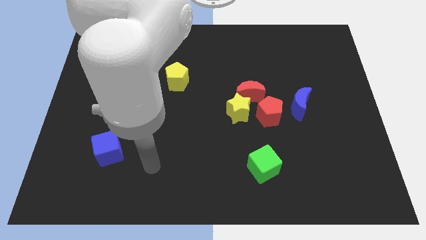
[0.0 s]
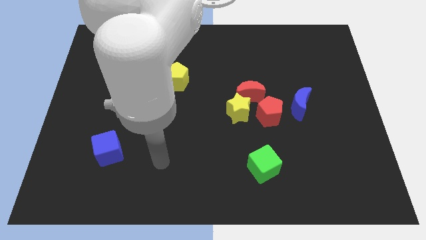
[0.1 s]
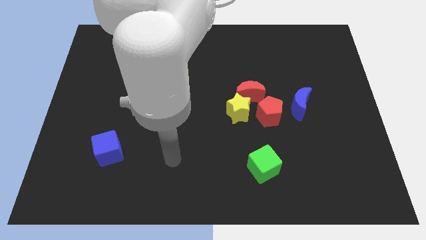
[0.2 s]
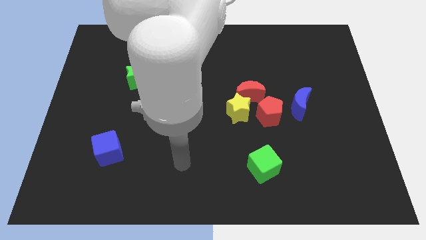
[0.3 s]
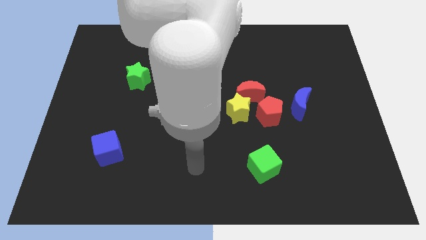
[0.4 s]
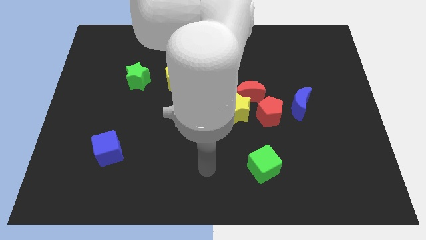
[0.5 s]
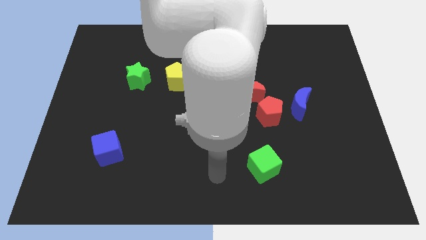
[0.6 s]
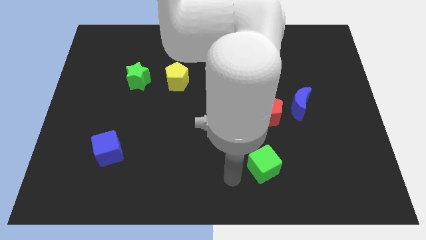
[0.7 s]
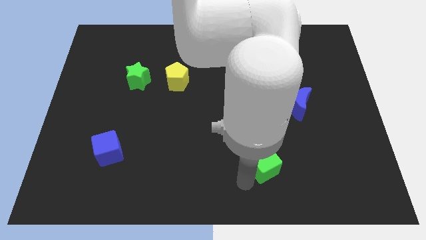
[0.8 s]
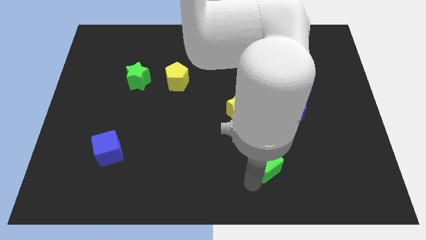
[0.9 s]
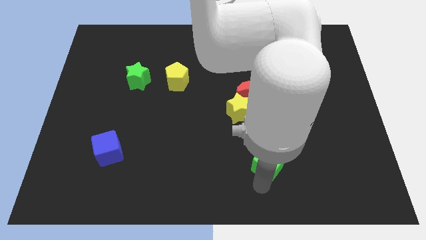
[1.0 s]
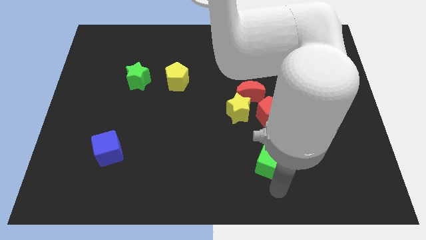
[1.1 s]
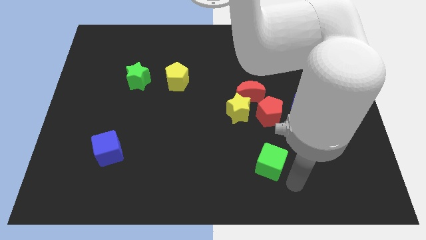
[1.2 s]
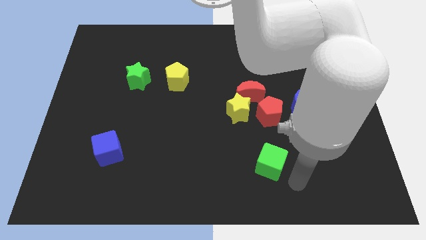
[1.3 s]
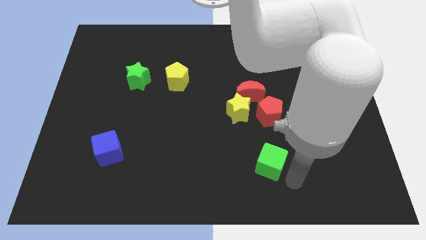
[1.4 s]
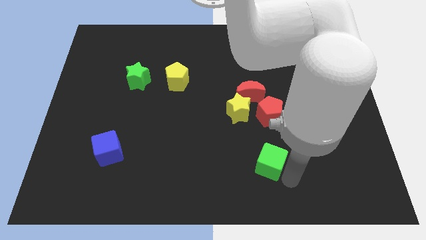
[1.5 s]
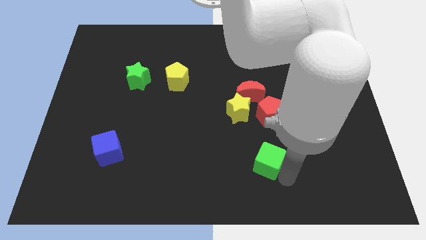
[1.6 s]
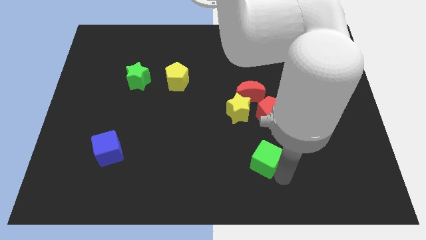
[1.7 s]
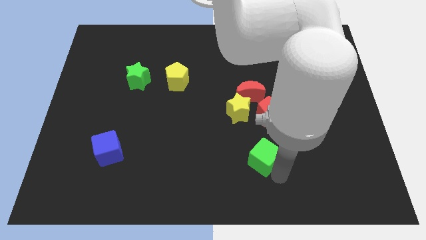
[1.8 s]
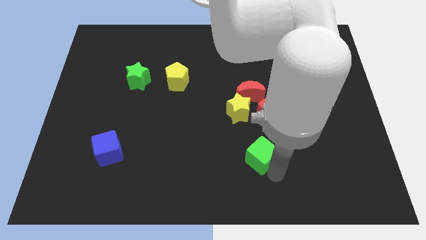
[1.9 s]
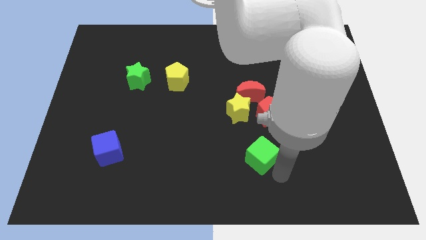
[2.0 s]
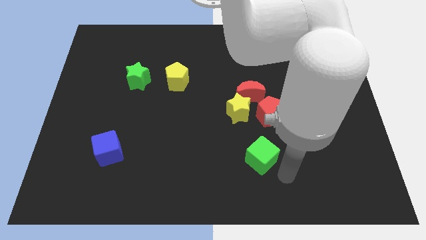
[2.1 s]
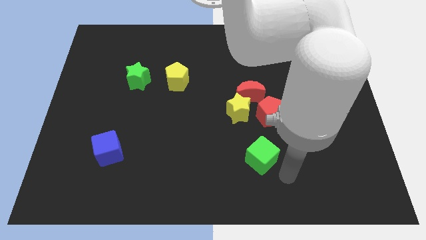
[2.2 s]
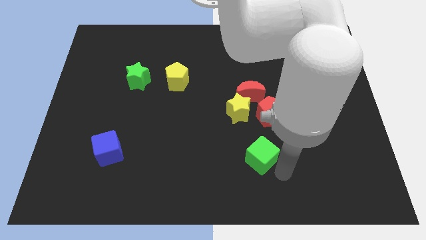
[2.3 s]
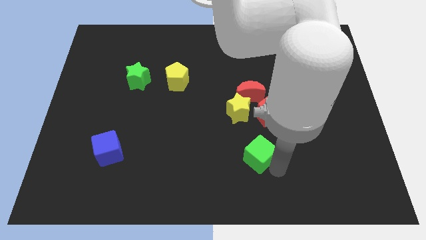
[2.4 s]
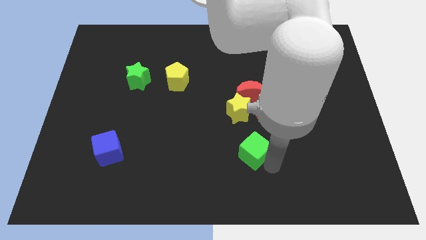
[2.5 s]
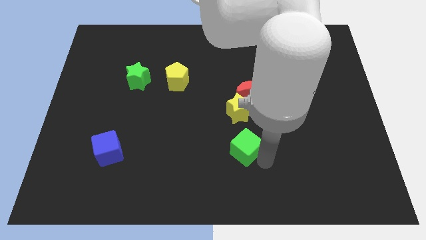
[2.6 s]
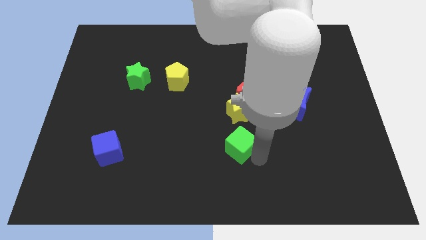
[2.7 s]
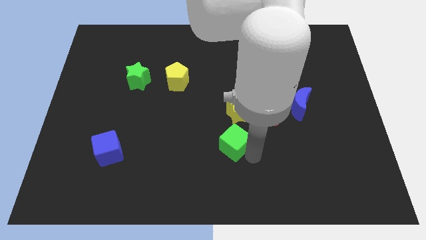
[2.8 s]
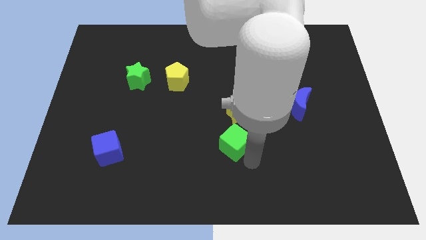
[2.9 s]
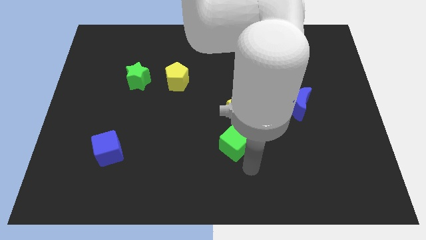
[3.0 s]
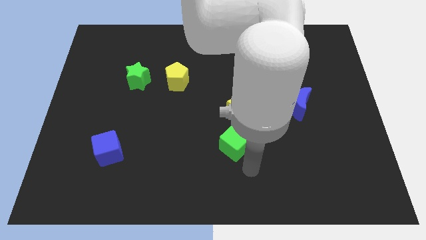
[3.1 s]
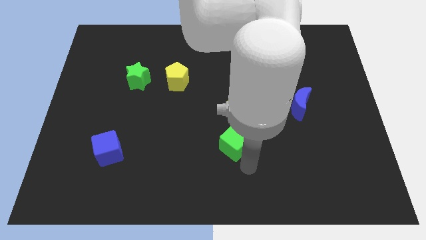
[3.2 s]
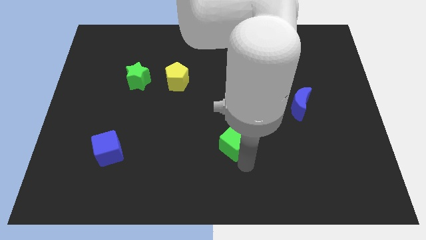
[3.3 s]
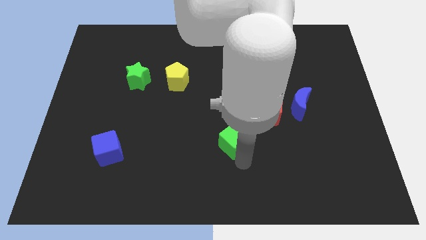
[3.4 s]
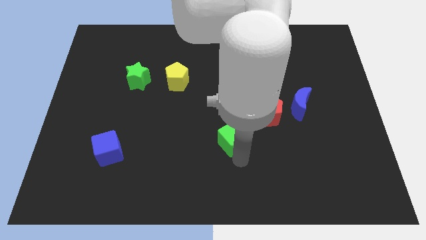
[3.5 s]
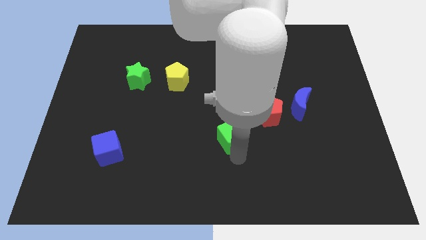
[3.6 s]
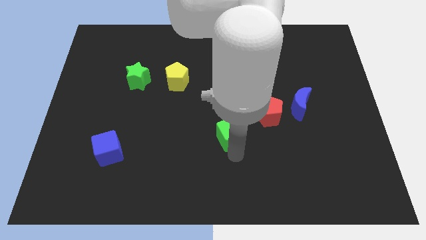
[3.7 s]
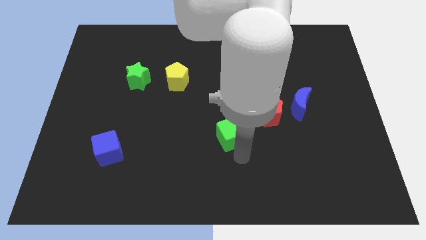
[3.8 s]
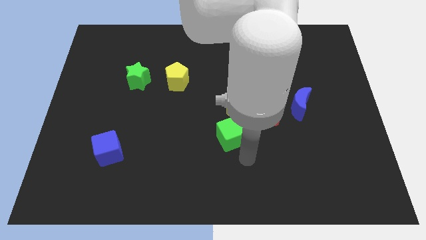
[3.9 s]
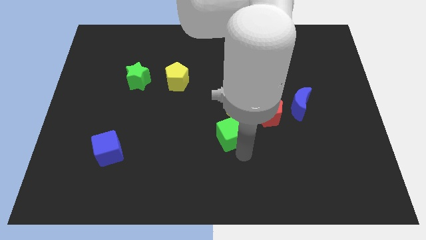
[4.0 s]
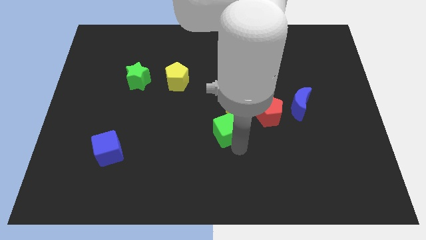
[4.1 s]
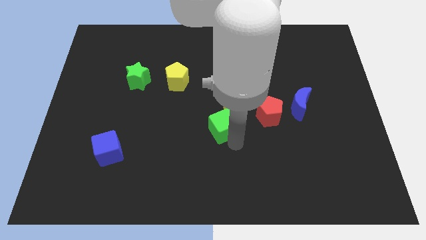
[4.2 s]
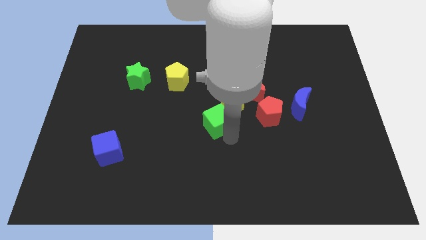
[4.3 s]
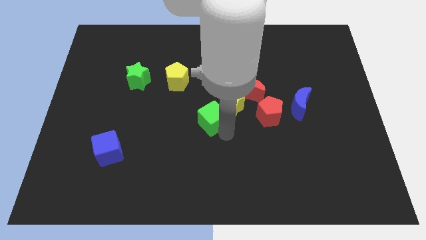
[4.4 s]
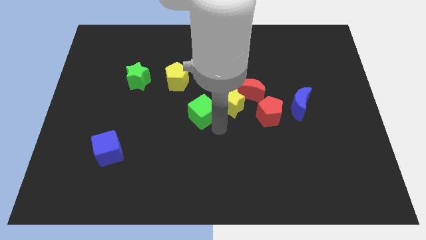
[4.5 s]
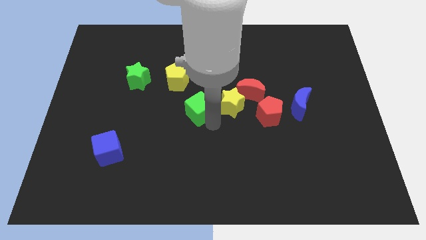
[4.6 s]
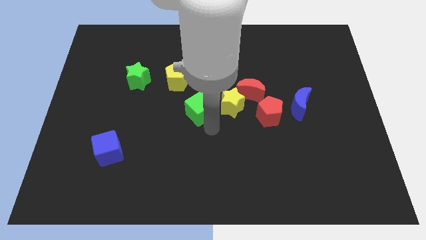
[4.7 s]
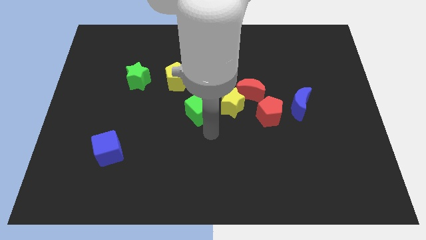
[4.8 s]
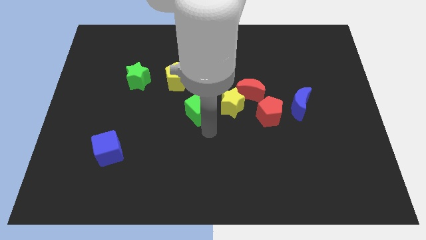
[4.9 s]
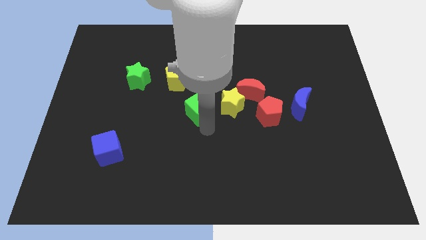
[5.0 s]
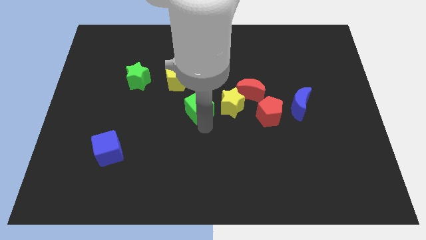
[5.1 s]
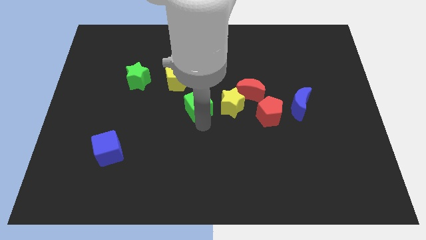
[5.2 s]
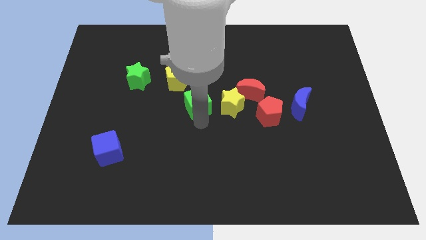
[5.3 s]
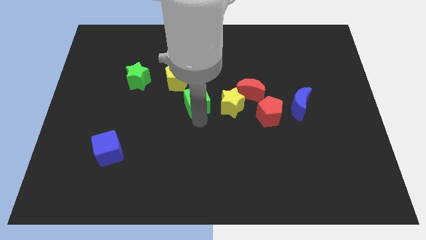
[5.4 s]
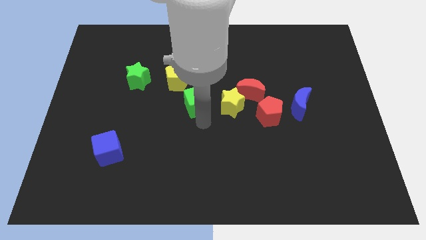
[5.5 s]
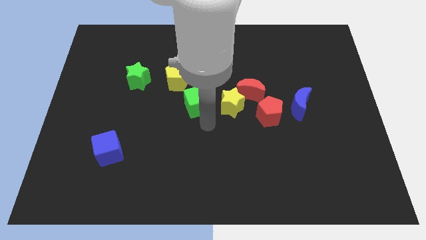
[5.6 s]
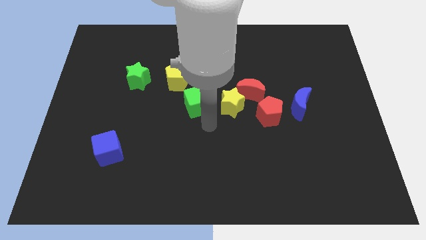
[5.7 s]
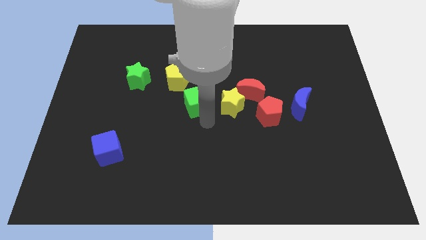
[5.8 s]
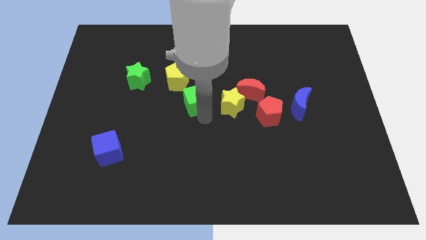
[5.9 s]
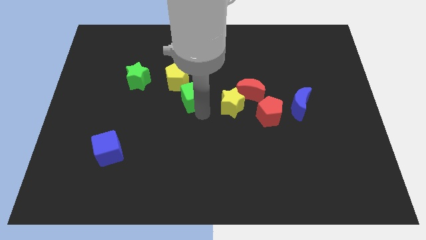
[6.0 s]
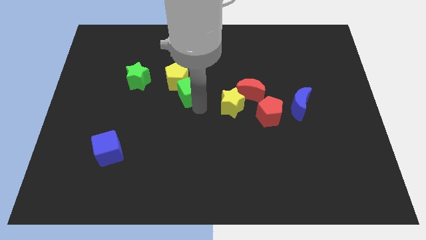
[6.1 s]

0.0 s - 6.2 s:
slide the green cube towards the yellow pentagon

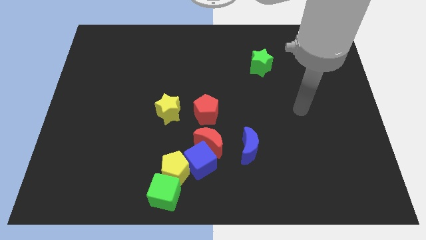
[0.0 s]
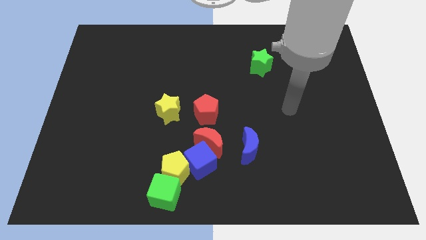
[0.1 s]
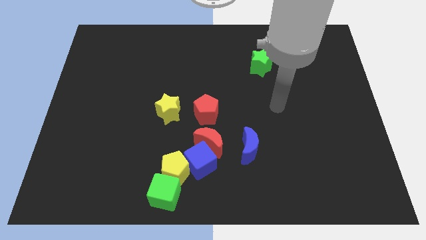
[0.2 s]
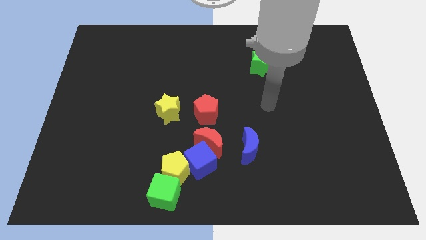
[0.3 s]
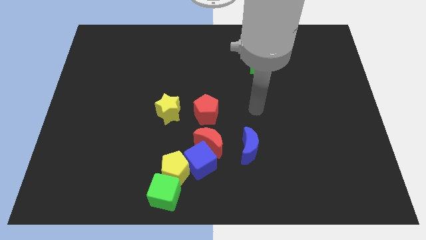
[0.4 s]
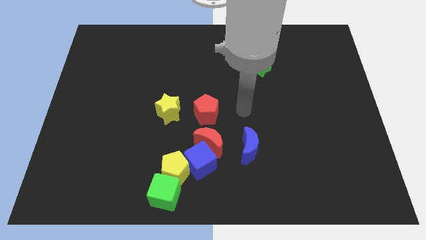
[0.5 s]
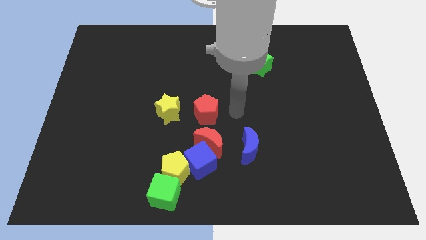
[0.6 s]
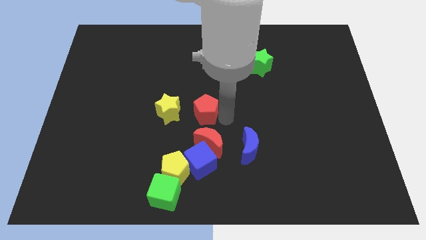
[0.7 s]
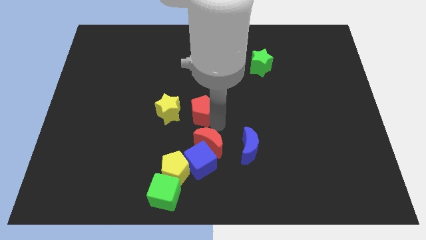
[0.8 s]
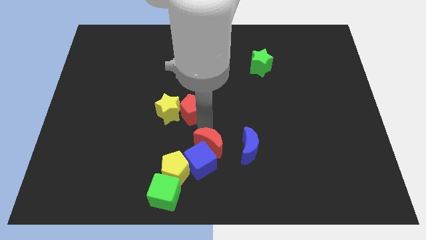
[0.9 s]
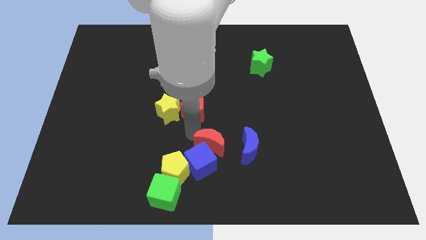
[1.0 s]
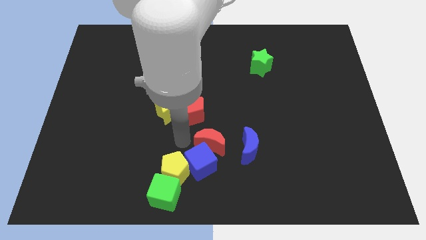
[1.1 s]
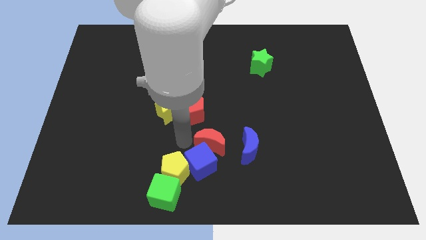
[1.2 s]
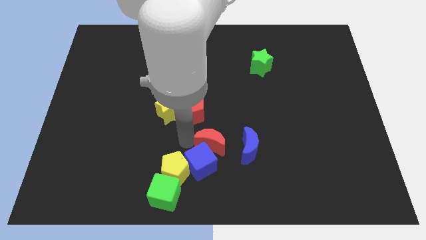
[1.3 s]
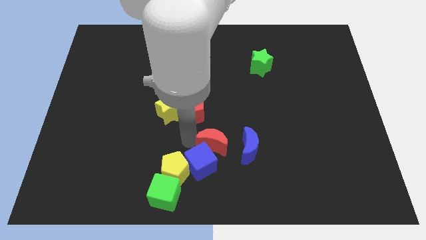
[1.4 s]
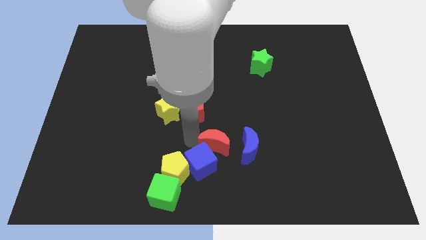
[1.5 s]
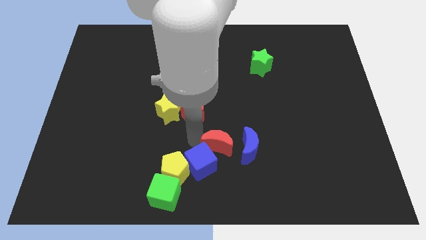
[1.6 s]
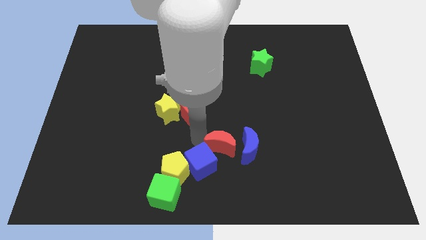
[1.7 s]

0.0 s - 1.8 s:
slide the red moon close to the blue moon
